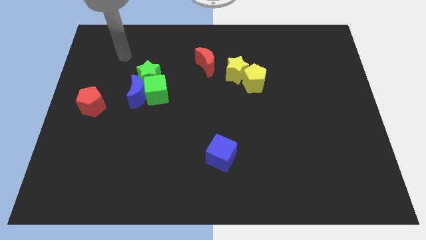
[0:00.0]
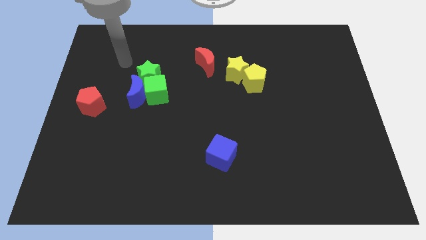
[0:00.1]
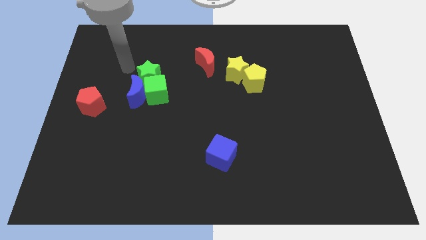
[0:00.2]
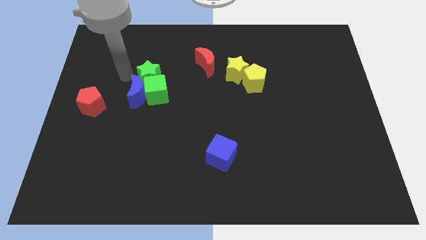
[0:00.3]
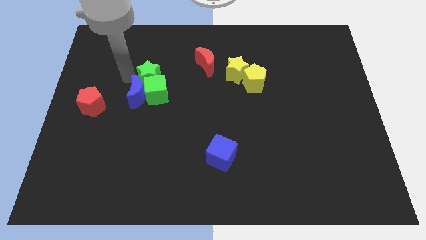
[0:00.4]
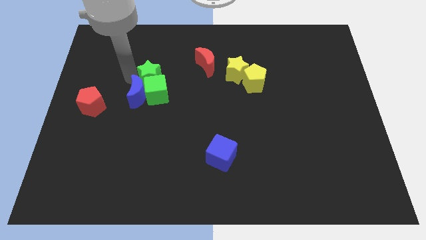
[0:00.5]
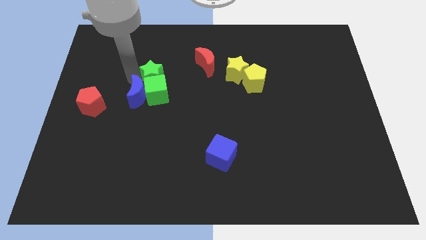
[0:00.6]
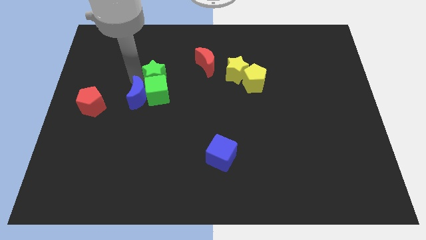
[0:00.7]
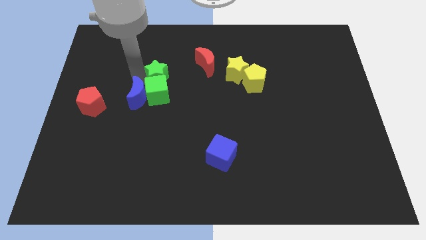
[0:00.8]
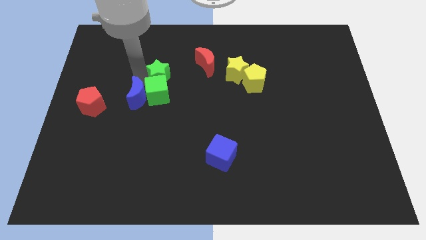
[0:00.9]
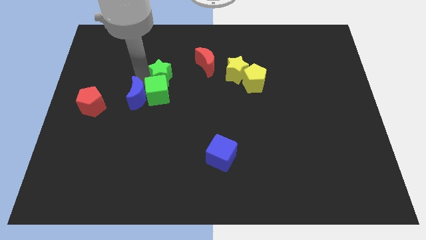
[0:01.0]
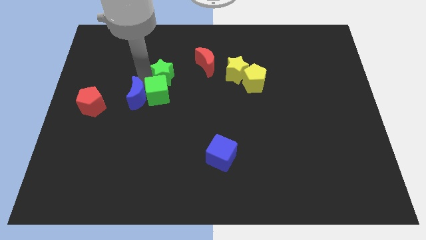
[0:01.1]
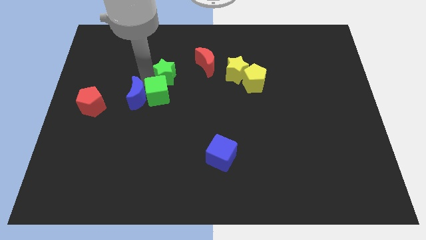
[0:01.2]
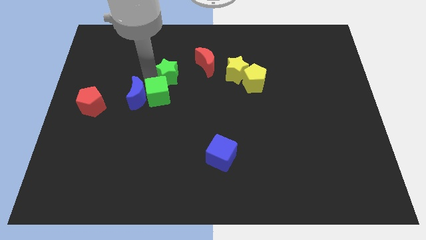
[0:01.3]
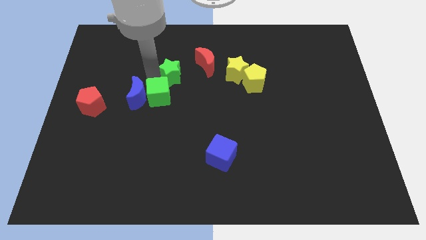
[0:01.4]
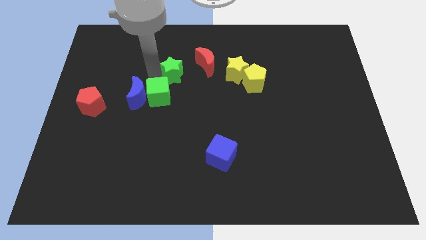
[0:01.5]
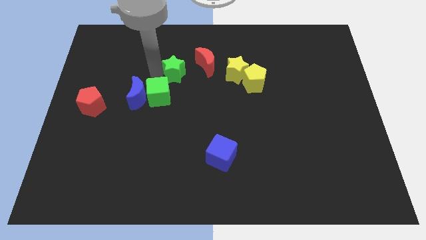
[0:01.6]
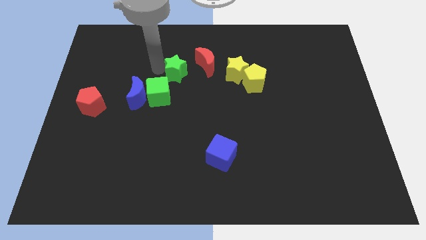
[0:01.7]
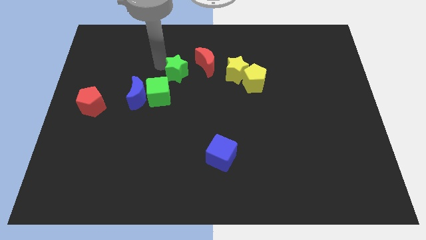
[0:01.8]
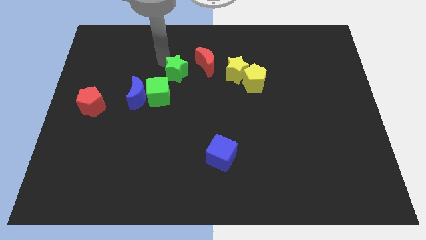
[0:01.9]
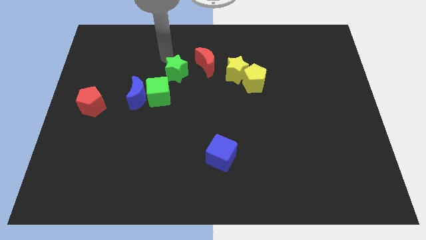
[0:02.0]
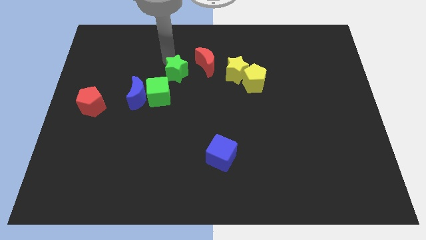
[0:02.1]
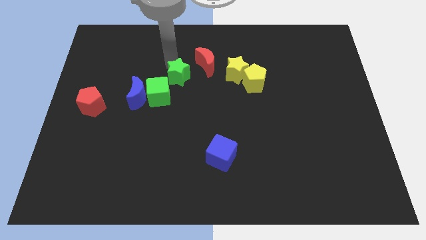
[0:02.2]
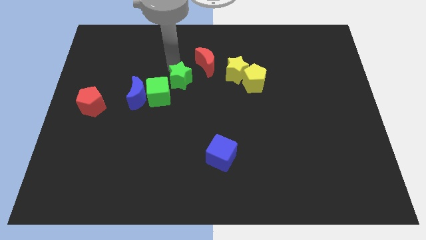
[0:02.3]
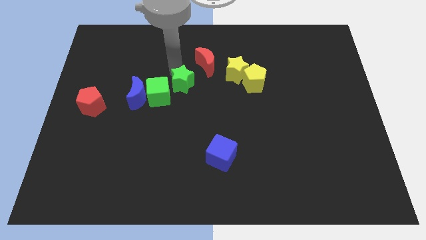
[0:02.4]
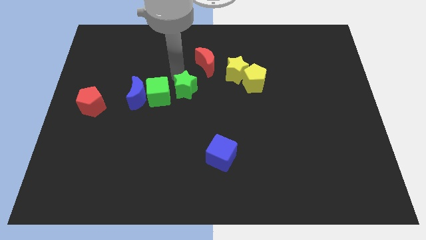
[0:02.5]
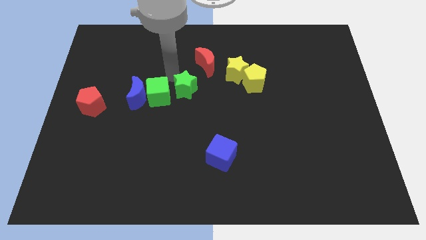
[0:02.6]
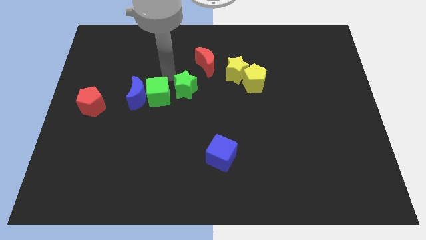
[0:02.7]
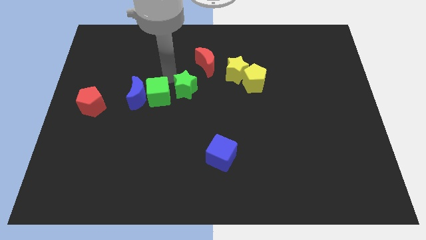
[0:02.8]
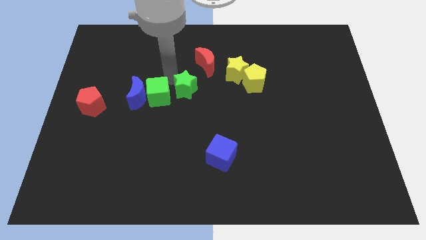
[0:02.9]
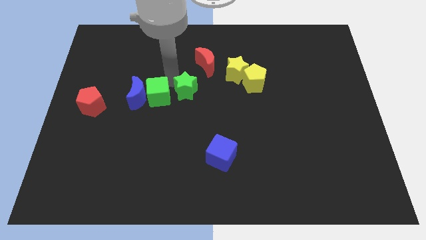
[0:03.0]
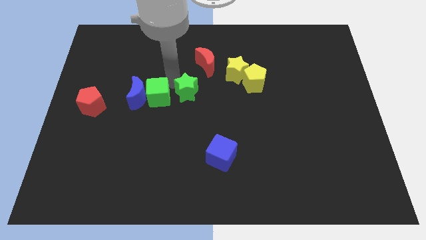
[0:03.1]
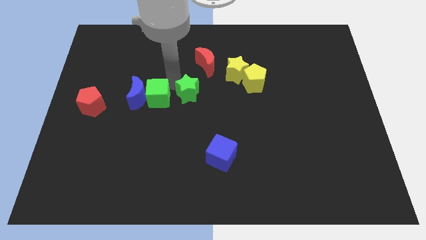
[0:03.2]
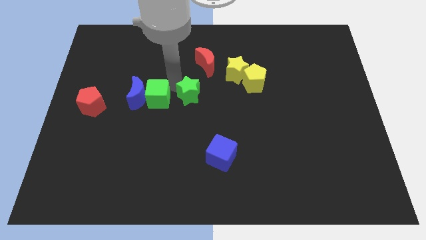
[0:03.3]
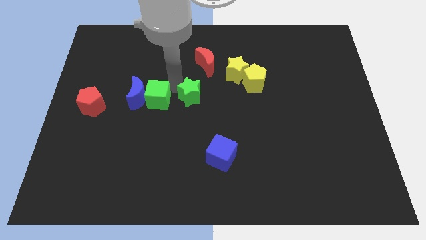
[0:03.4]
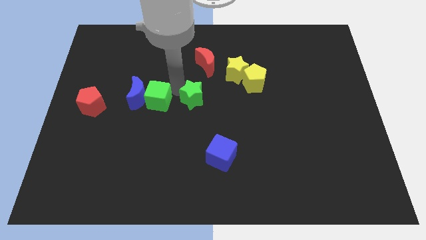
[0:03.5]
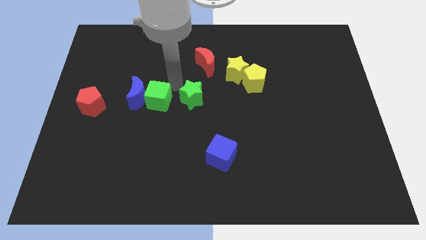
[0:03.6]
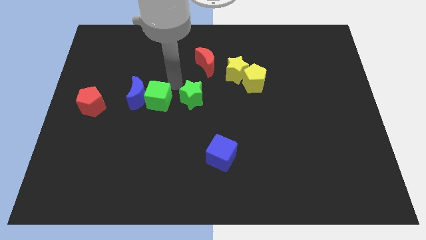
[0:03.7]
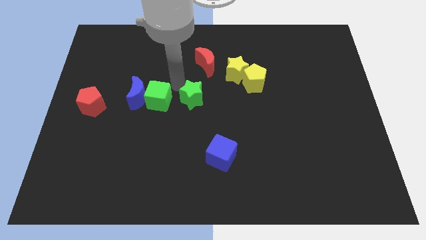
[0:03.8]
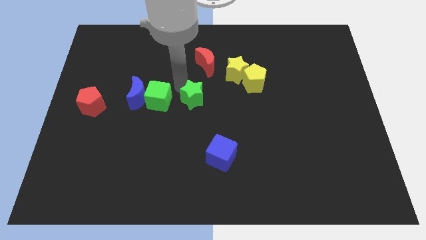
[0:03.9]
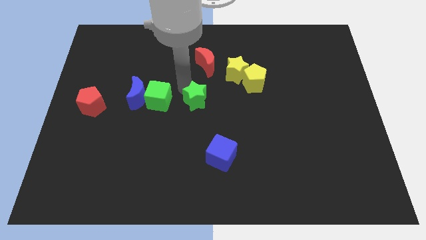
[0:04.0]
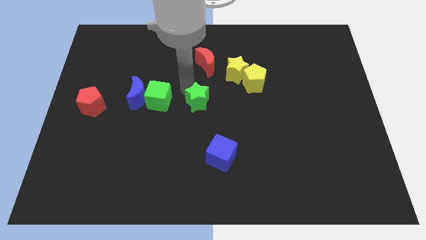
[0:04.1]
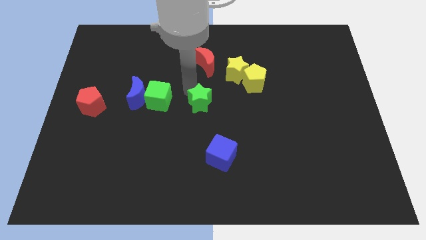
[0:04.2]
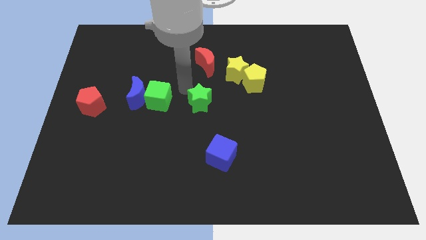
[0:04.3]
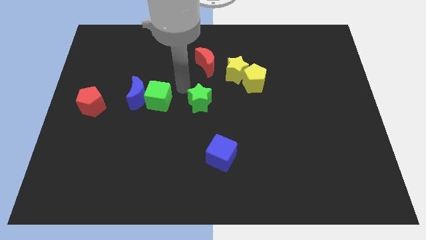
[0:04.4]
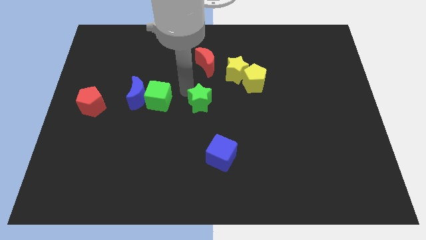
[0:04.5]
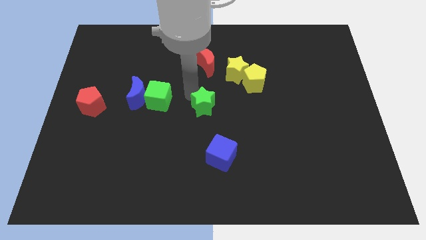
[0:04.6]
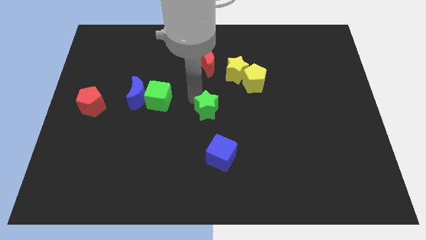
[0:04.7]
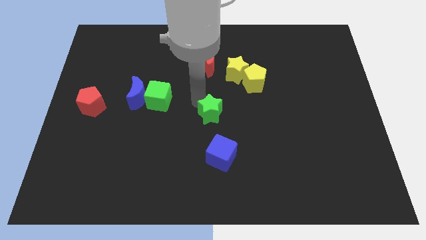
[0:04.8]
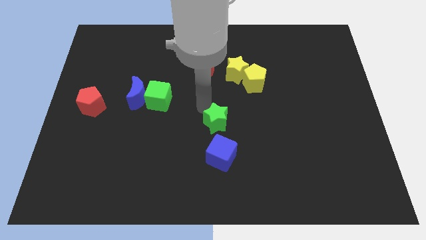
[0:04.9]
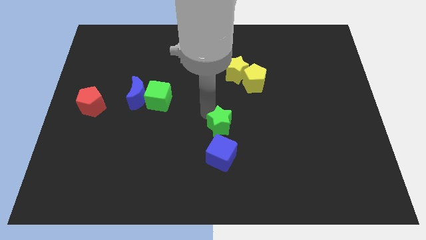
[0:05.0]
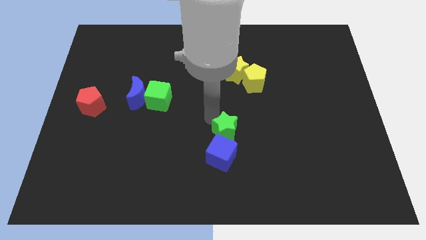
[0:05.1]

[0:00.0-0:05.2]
move the green star to the top right side of the blue cube

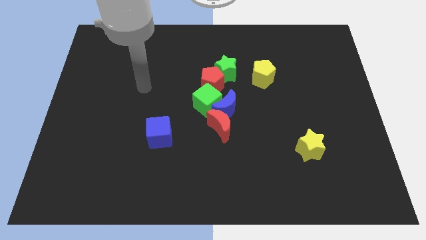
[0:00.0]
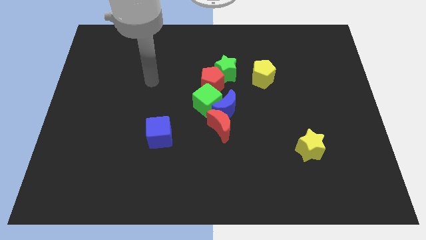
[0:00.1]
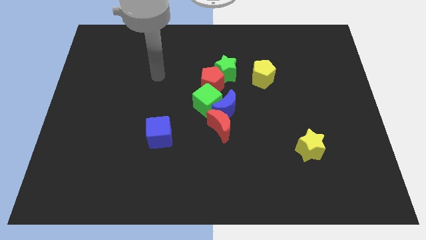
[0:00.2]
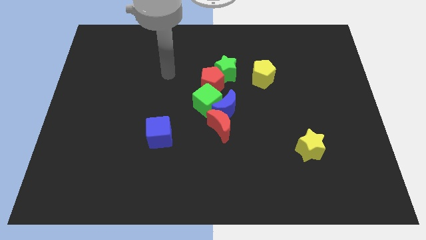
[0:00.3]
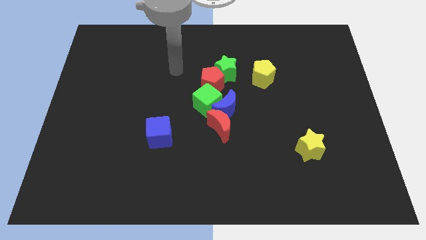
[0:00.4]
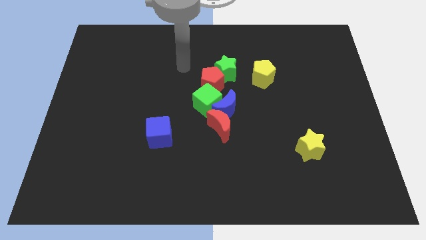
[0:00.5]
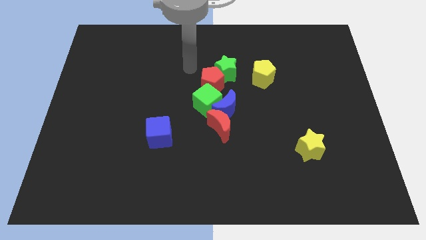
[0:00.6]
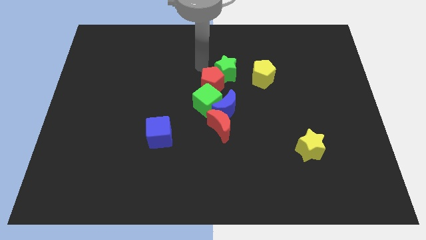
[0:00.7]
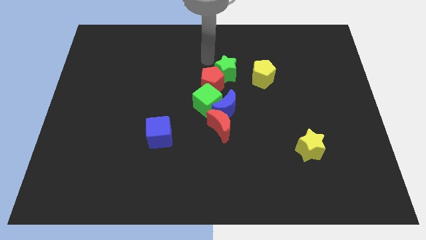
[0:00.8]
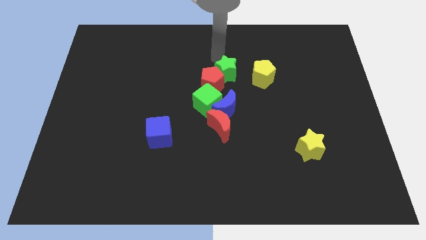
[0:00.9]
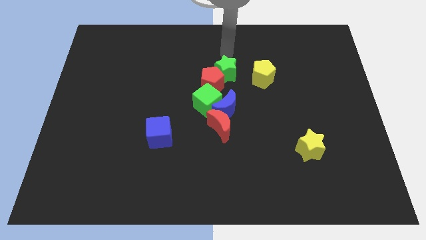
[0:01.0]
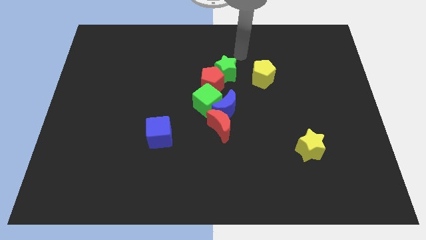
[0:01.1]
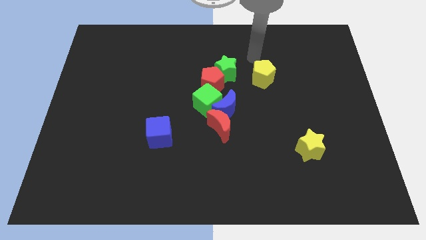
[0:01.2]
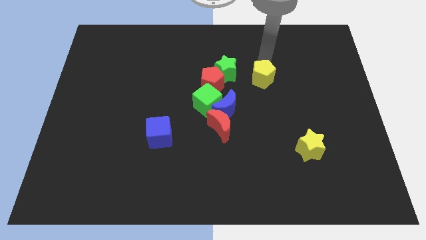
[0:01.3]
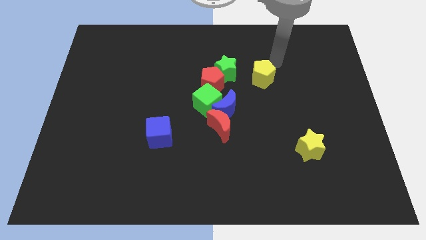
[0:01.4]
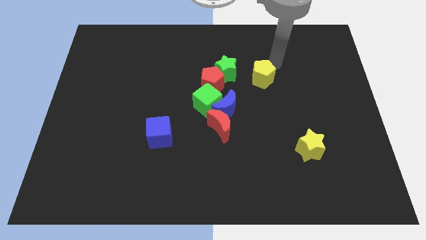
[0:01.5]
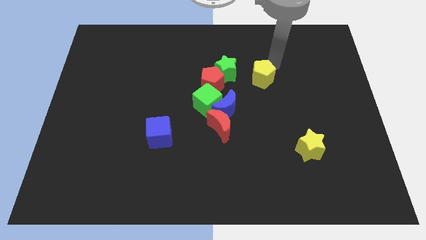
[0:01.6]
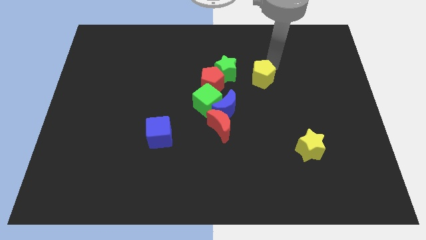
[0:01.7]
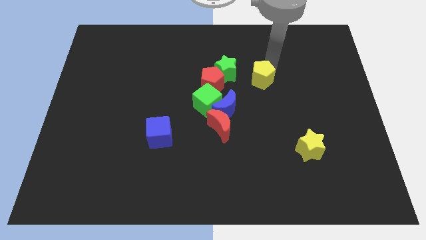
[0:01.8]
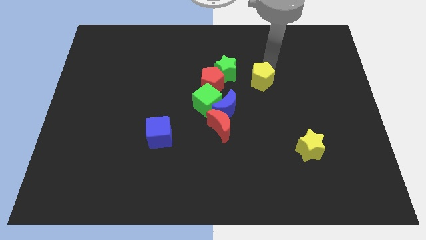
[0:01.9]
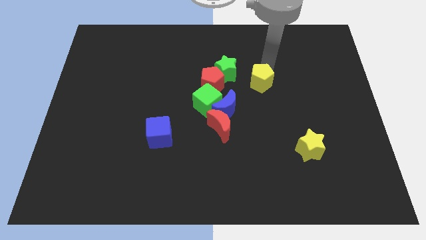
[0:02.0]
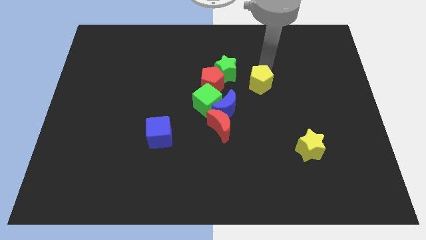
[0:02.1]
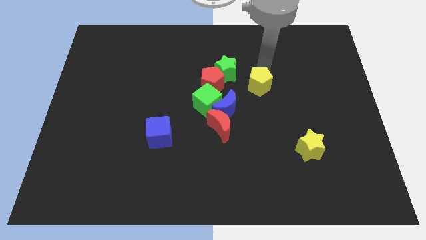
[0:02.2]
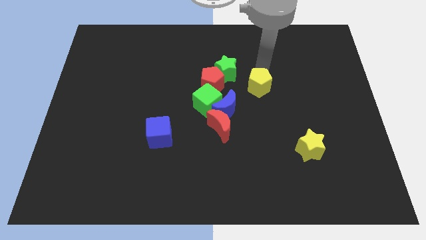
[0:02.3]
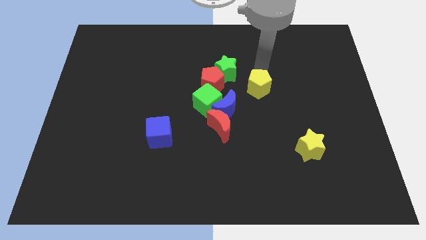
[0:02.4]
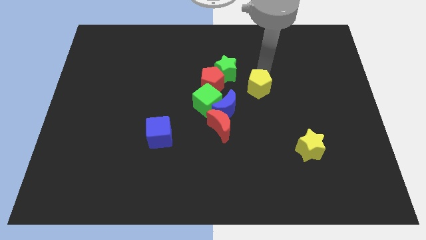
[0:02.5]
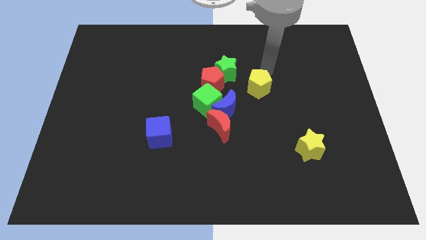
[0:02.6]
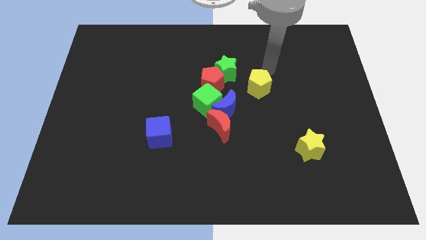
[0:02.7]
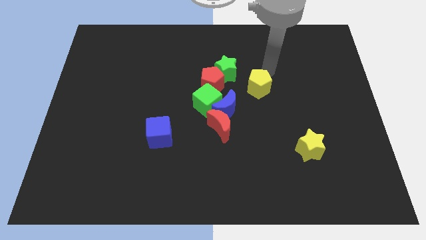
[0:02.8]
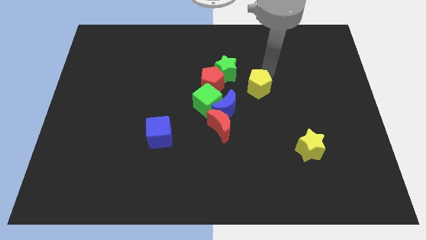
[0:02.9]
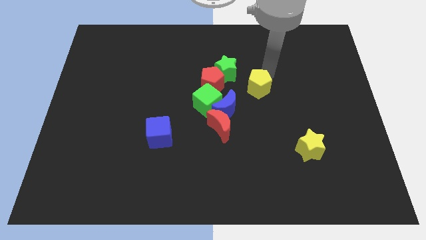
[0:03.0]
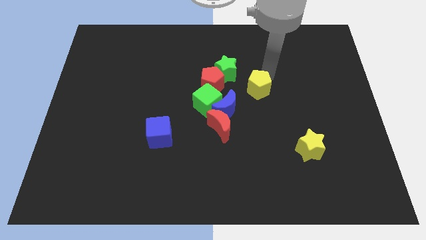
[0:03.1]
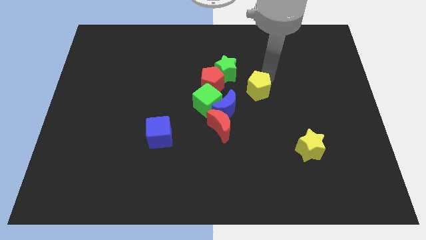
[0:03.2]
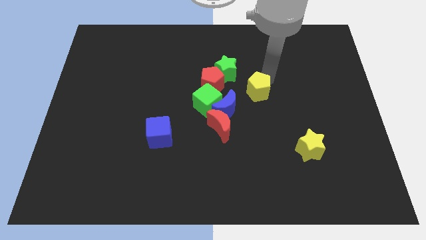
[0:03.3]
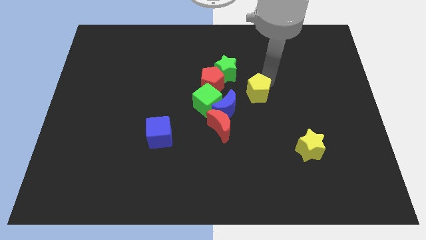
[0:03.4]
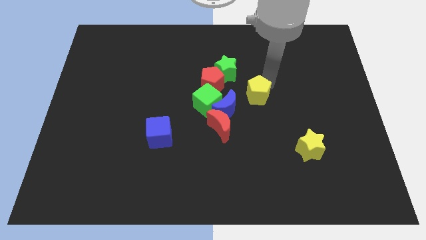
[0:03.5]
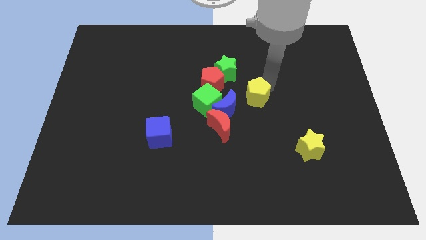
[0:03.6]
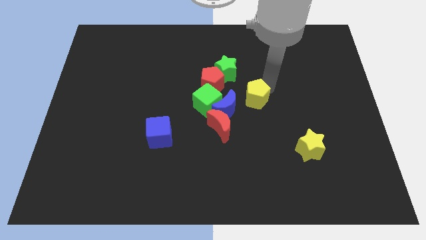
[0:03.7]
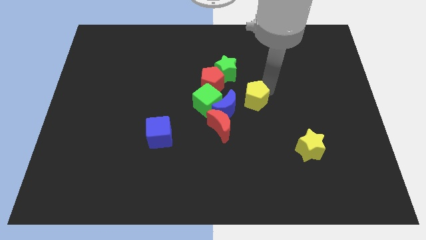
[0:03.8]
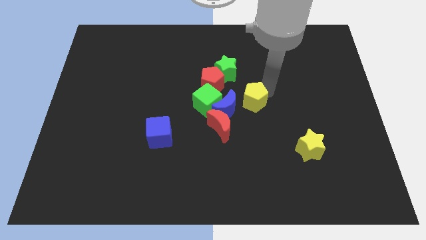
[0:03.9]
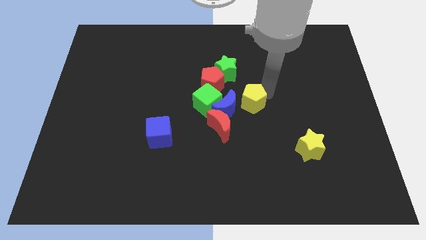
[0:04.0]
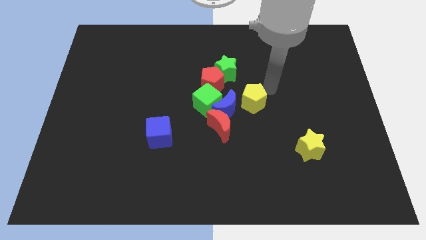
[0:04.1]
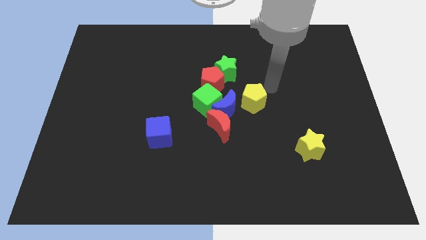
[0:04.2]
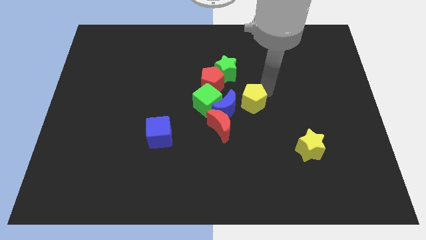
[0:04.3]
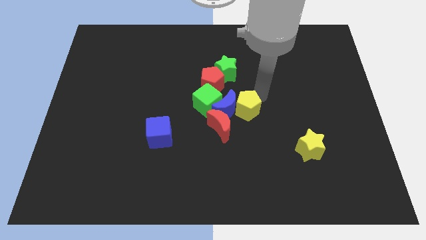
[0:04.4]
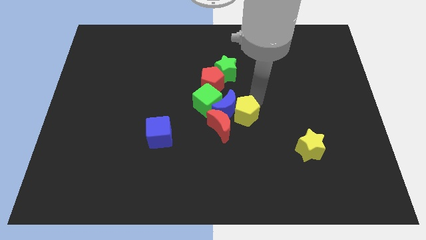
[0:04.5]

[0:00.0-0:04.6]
slide the yellow pentagon to the bottom right of the green cube
